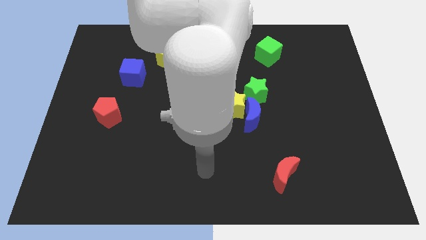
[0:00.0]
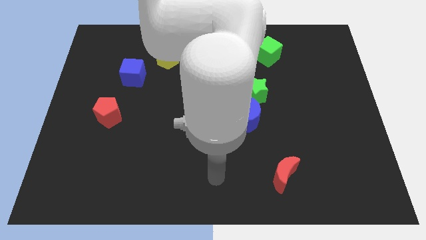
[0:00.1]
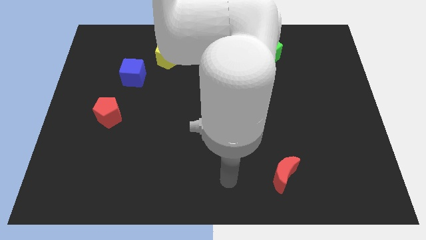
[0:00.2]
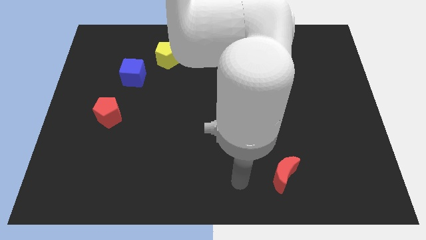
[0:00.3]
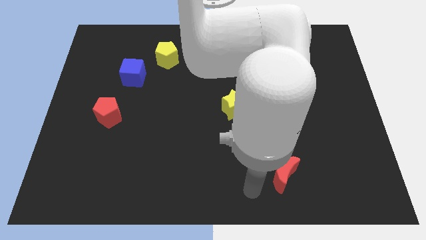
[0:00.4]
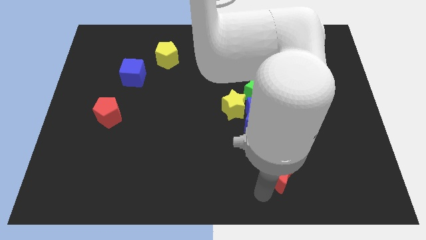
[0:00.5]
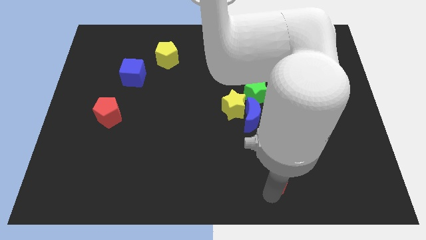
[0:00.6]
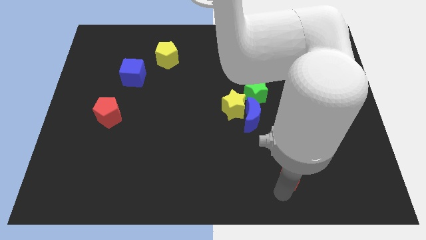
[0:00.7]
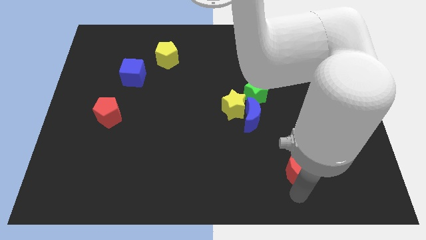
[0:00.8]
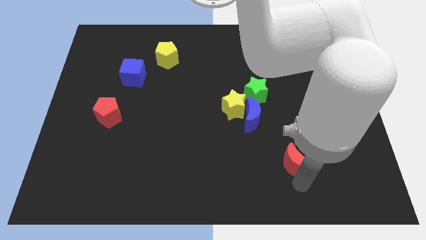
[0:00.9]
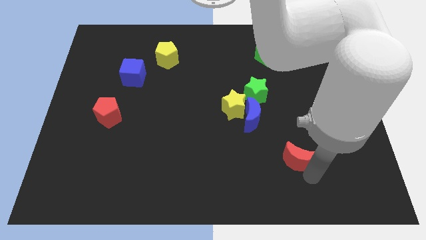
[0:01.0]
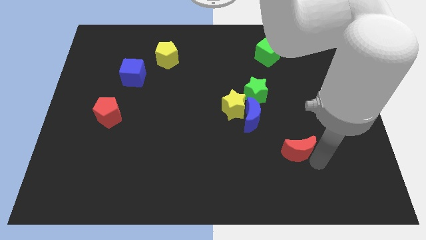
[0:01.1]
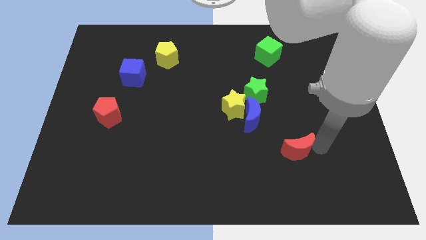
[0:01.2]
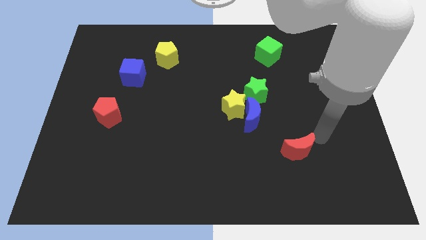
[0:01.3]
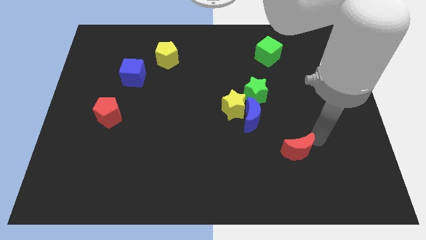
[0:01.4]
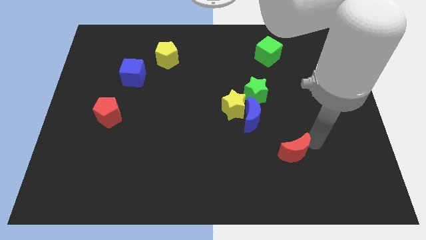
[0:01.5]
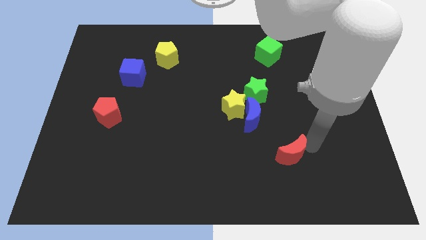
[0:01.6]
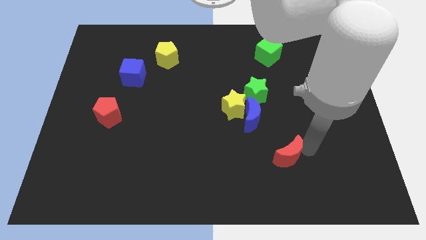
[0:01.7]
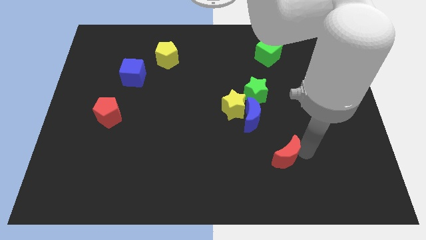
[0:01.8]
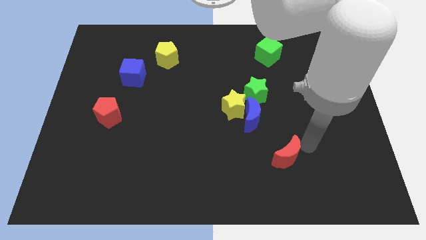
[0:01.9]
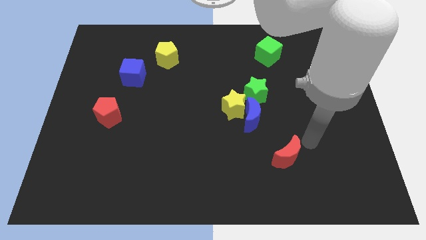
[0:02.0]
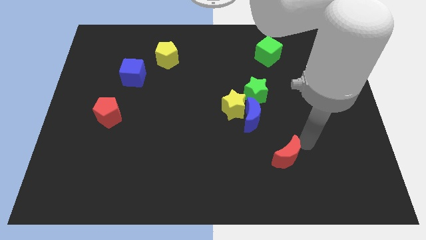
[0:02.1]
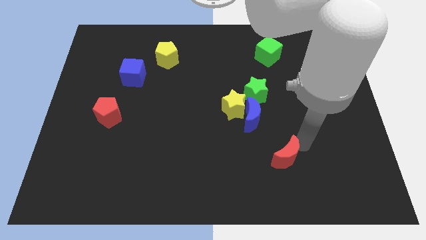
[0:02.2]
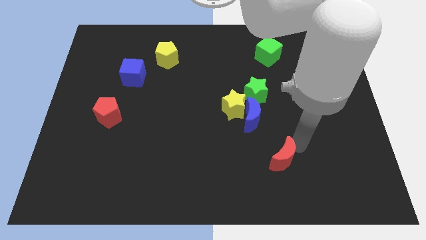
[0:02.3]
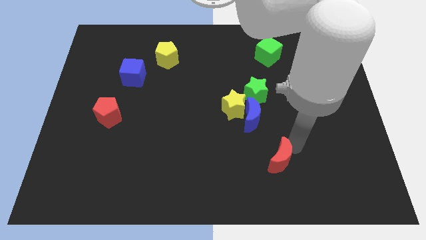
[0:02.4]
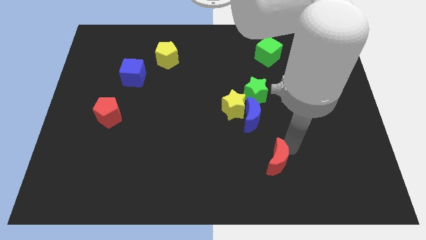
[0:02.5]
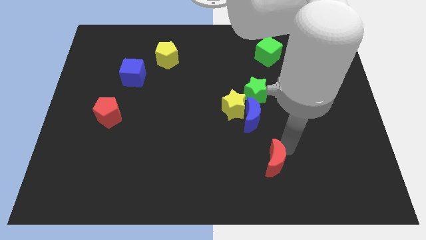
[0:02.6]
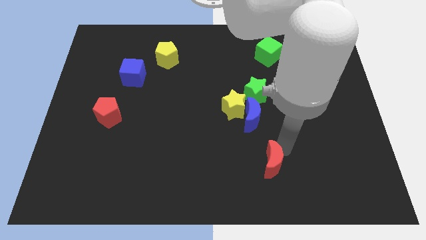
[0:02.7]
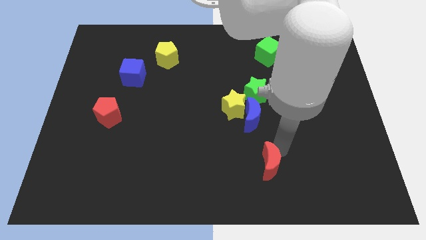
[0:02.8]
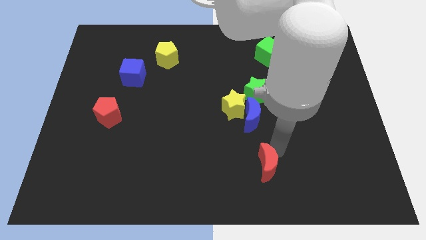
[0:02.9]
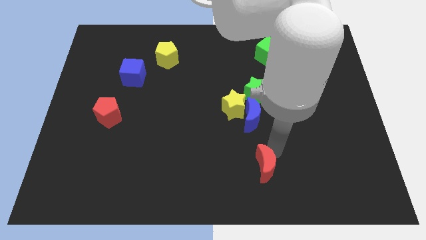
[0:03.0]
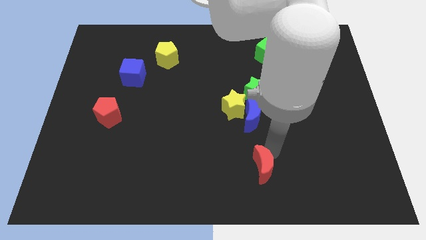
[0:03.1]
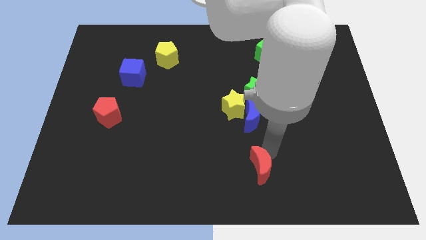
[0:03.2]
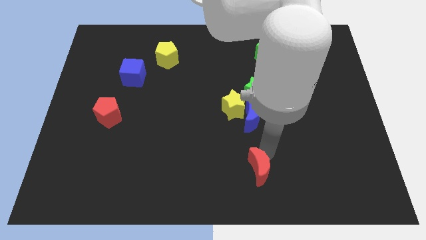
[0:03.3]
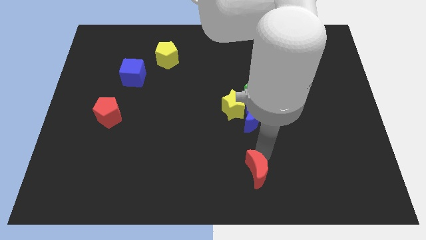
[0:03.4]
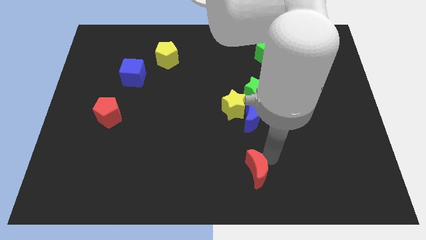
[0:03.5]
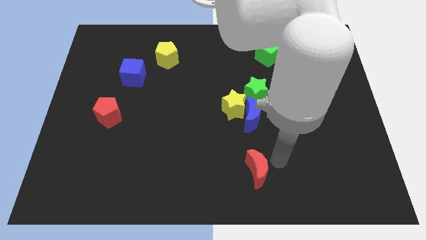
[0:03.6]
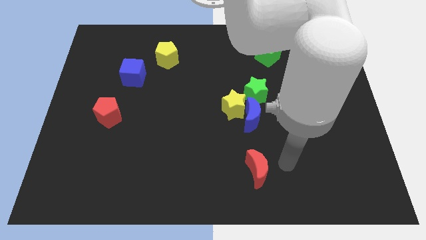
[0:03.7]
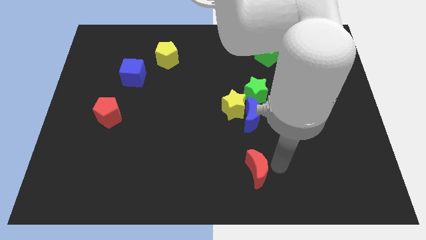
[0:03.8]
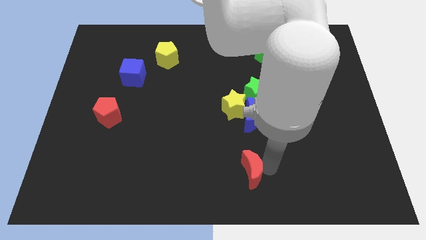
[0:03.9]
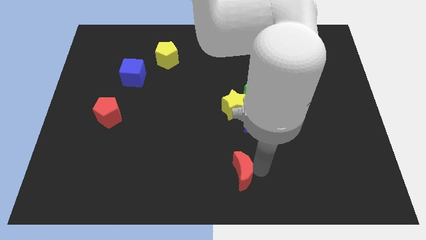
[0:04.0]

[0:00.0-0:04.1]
slide the red moon a bit left

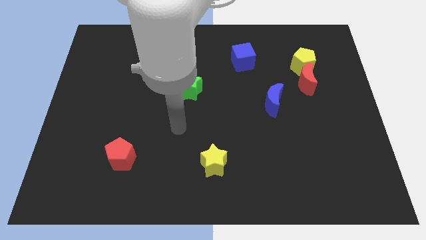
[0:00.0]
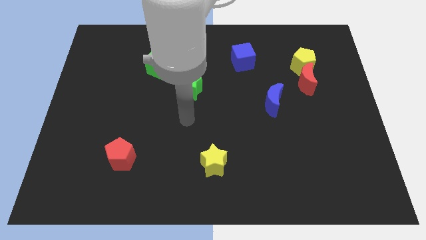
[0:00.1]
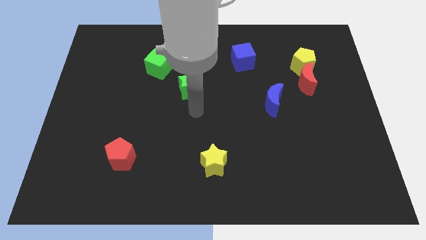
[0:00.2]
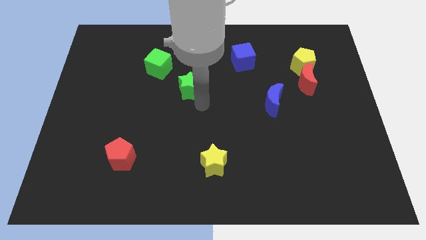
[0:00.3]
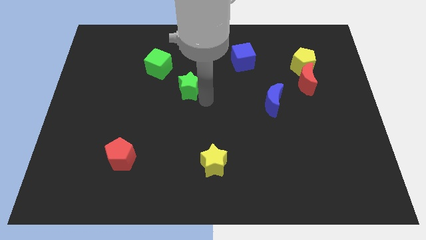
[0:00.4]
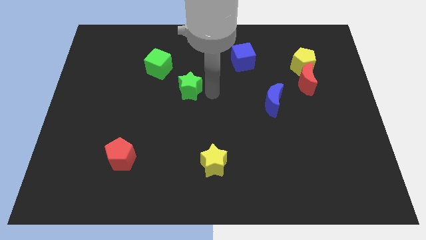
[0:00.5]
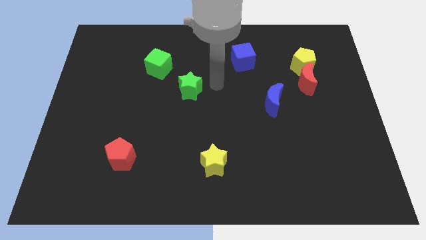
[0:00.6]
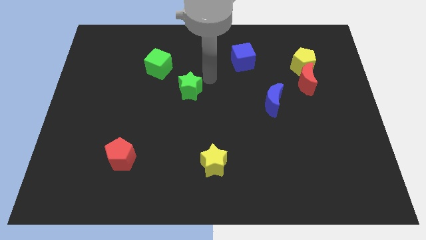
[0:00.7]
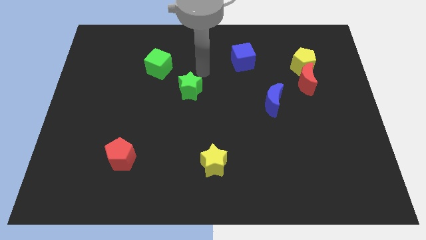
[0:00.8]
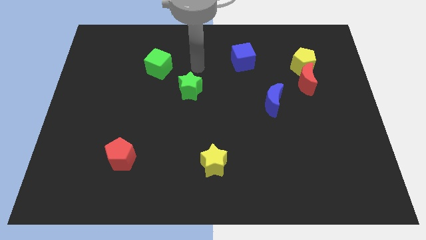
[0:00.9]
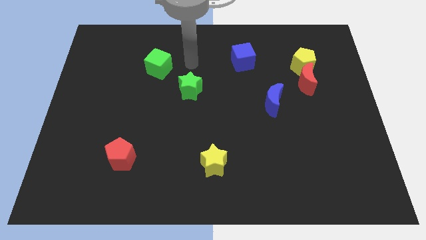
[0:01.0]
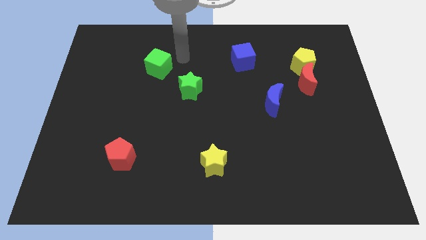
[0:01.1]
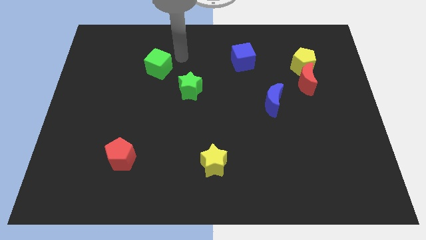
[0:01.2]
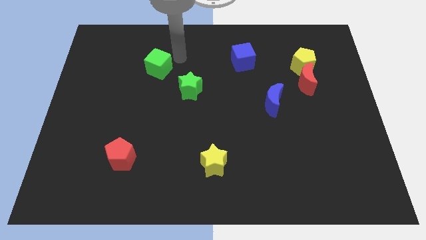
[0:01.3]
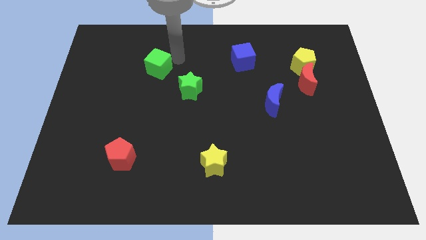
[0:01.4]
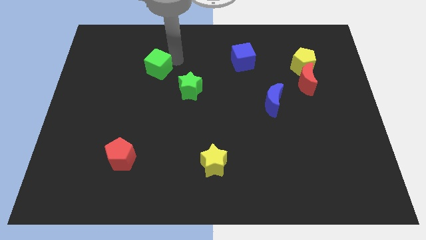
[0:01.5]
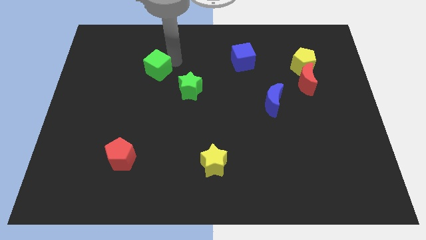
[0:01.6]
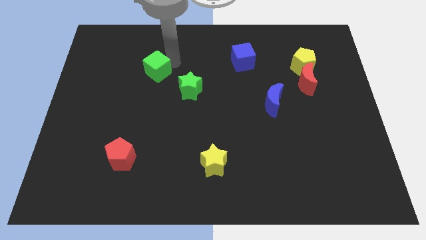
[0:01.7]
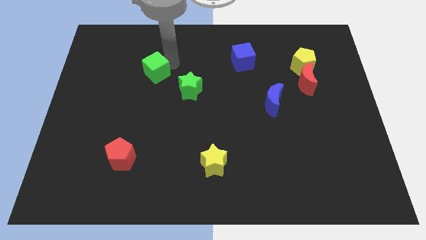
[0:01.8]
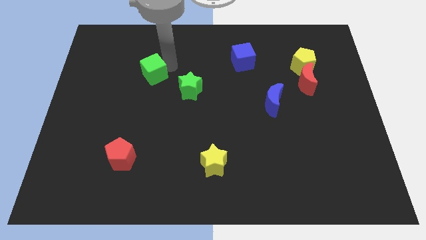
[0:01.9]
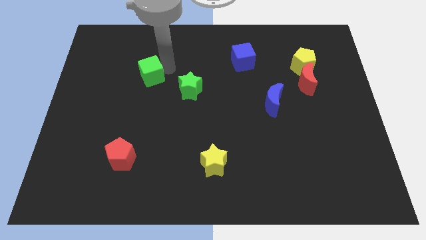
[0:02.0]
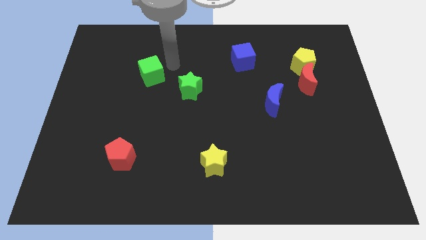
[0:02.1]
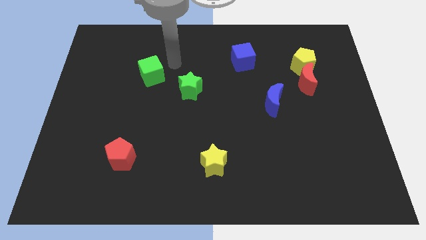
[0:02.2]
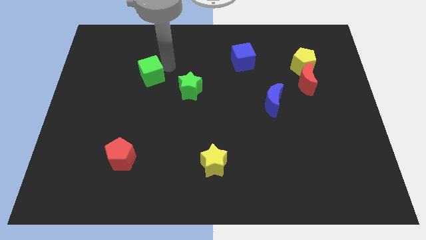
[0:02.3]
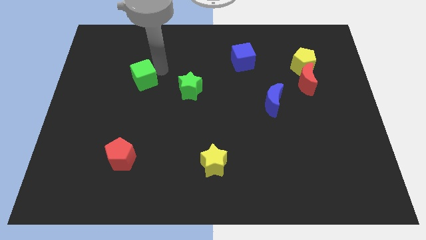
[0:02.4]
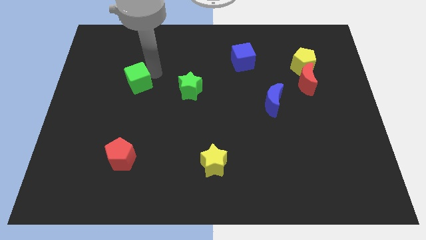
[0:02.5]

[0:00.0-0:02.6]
move the green cube downwards and then to the left a little

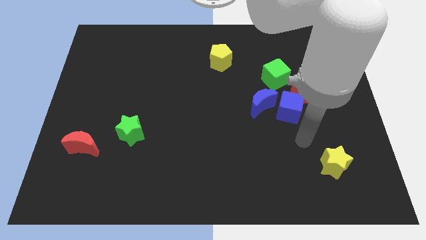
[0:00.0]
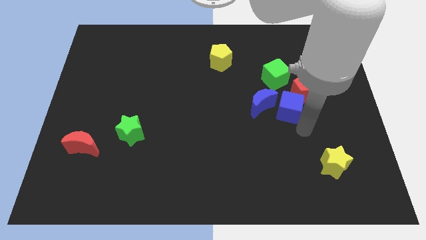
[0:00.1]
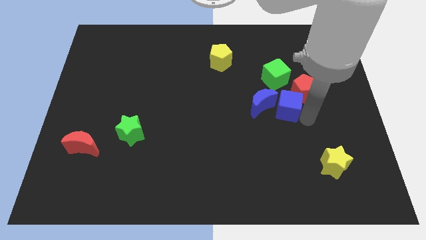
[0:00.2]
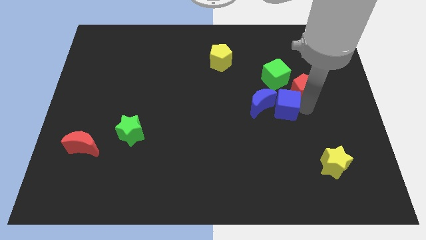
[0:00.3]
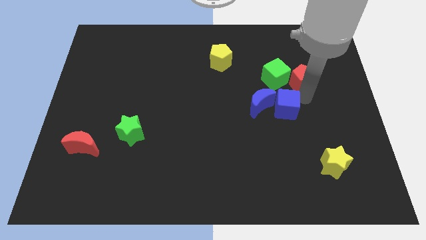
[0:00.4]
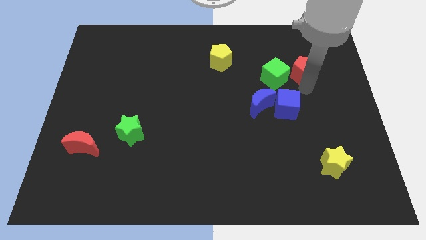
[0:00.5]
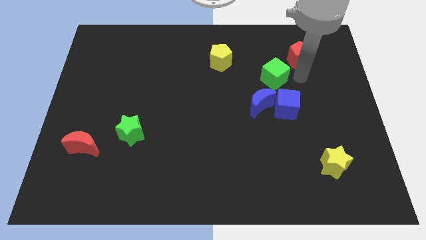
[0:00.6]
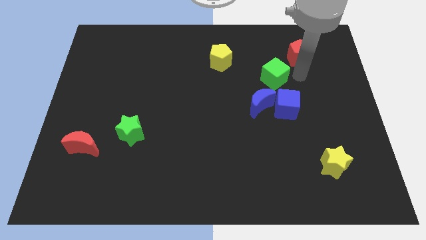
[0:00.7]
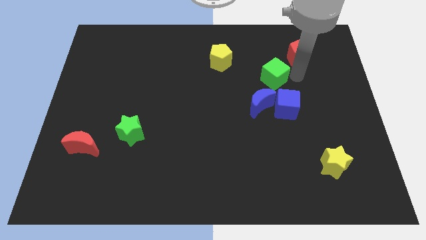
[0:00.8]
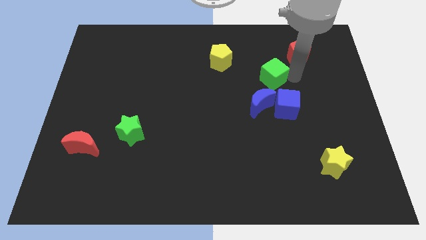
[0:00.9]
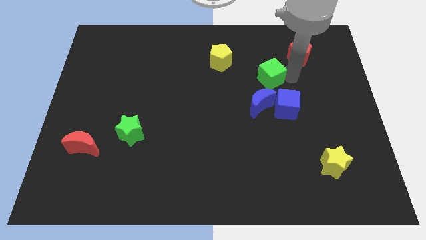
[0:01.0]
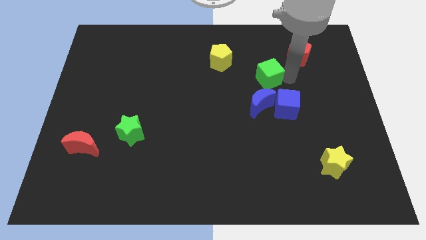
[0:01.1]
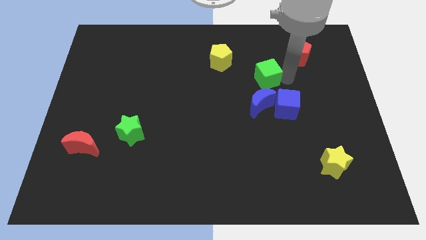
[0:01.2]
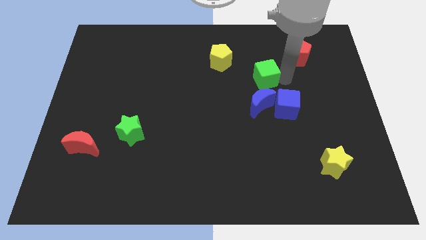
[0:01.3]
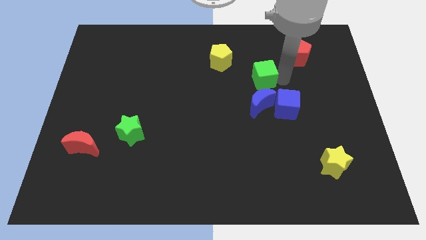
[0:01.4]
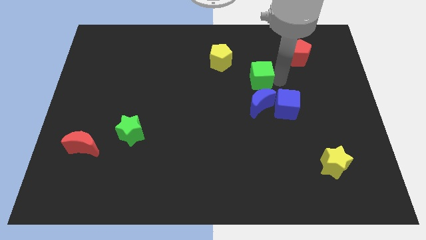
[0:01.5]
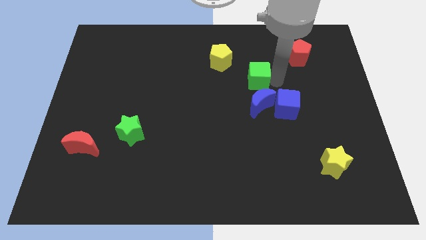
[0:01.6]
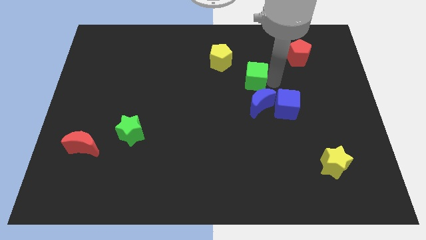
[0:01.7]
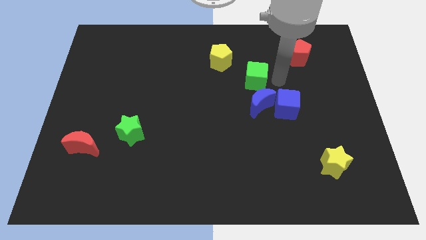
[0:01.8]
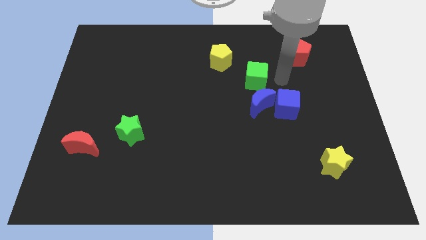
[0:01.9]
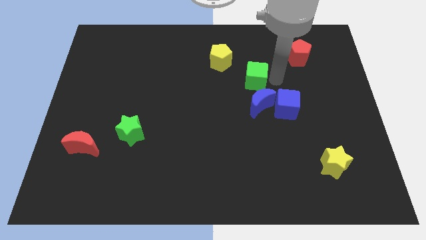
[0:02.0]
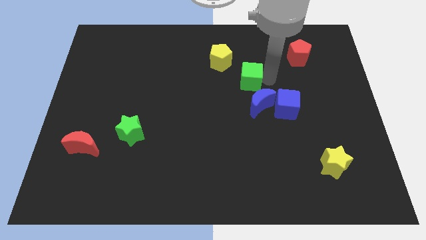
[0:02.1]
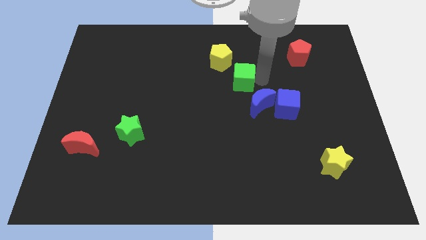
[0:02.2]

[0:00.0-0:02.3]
slide the green cube to the left slightly
